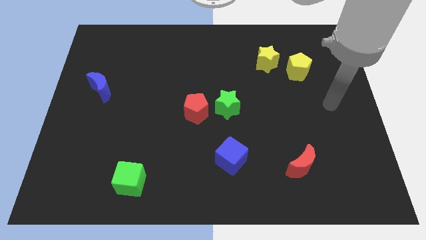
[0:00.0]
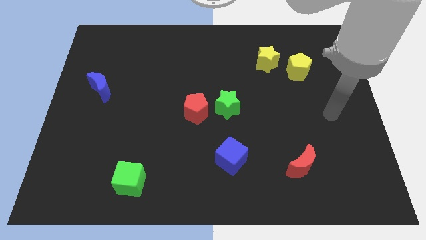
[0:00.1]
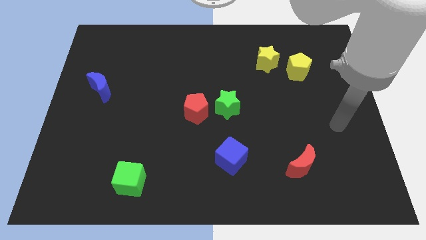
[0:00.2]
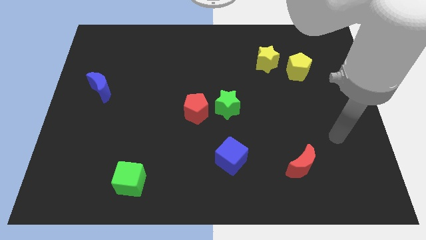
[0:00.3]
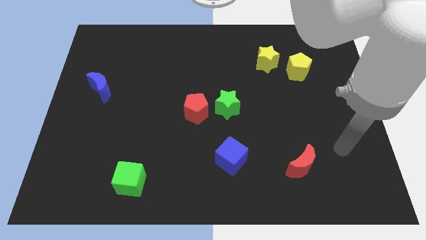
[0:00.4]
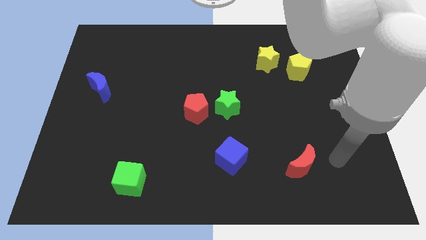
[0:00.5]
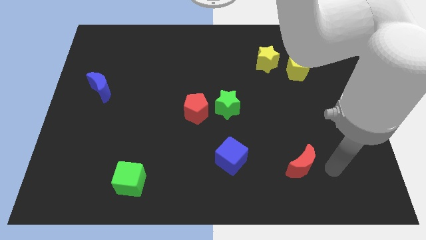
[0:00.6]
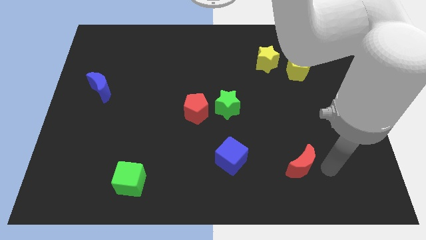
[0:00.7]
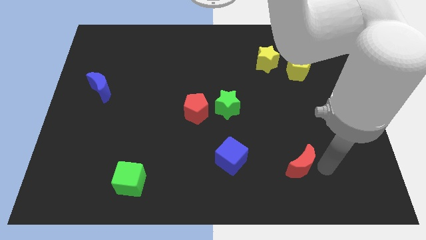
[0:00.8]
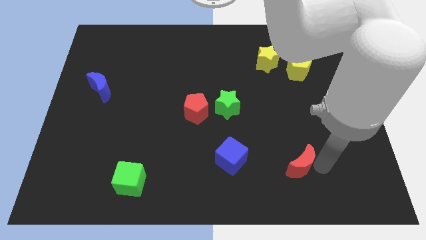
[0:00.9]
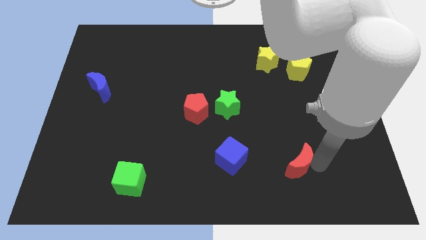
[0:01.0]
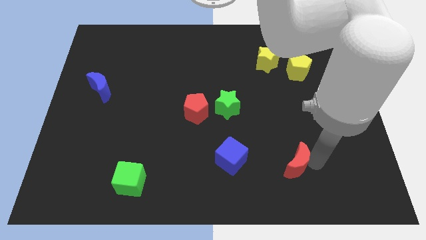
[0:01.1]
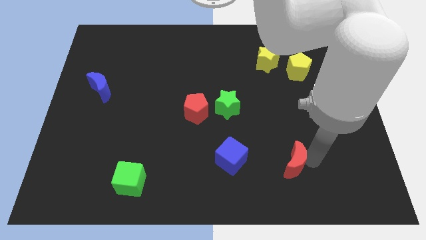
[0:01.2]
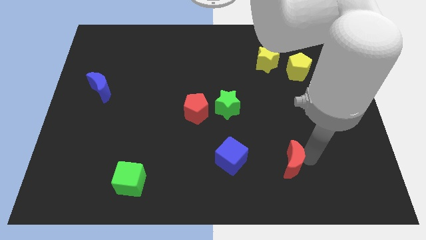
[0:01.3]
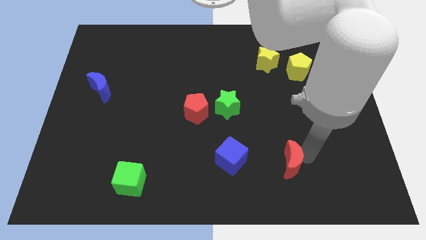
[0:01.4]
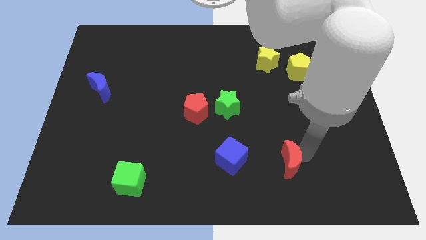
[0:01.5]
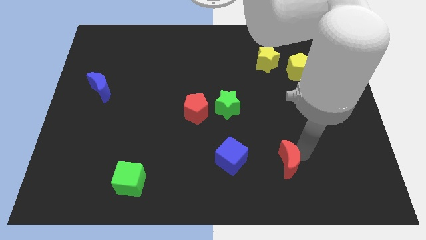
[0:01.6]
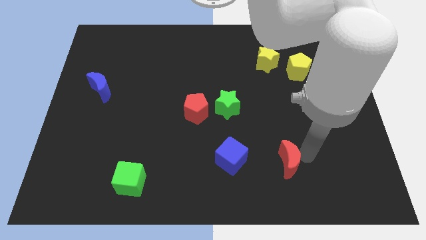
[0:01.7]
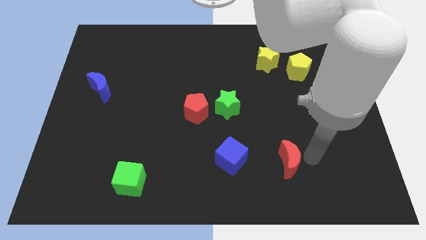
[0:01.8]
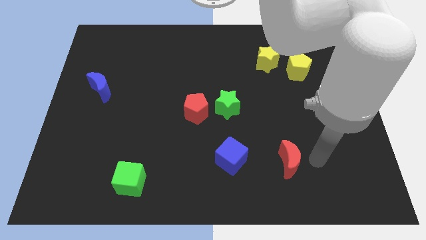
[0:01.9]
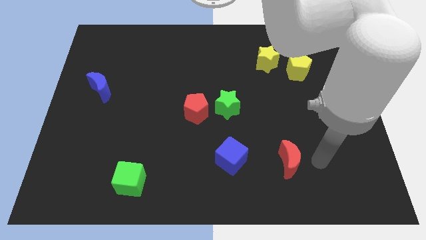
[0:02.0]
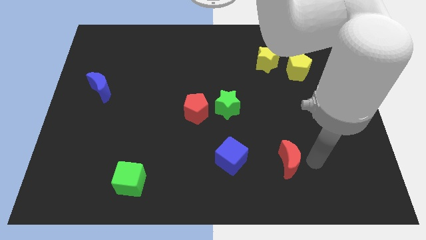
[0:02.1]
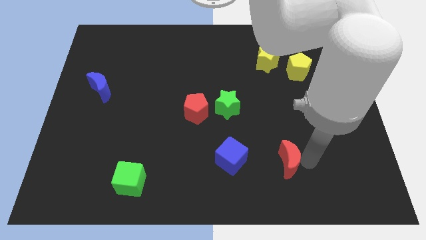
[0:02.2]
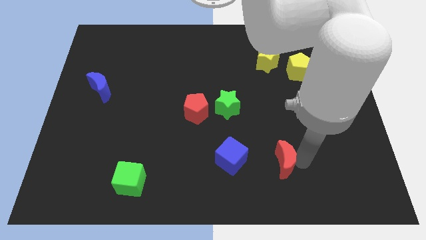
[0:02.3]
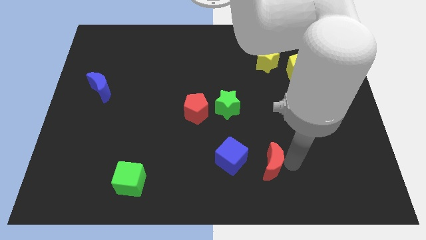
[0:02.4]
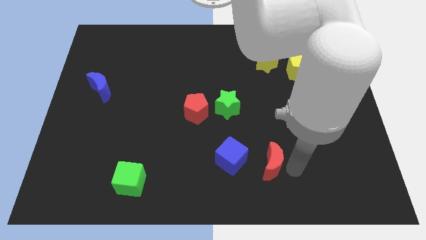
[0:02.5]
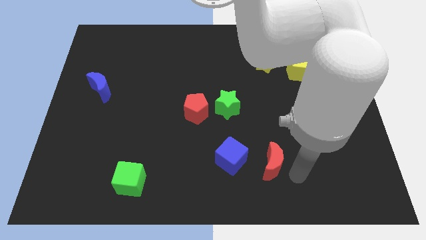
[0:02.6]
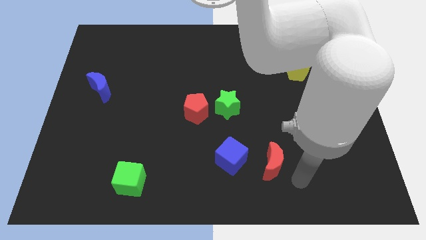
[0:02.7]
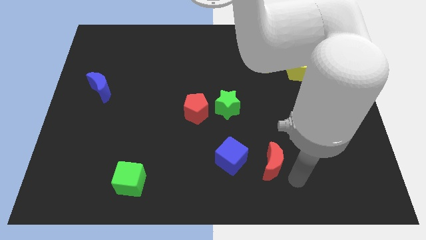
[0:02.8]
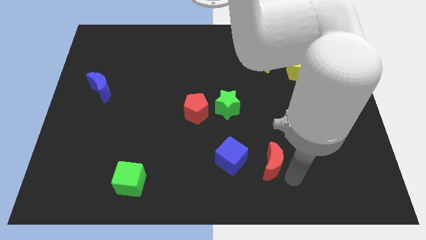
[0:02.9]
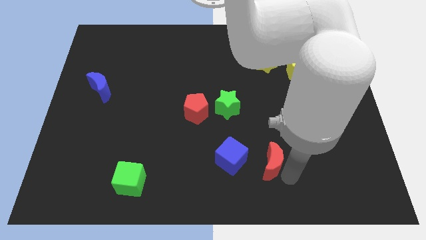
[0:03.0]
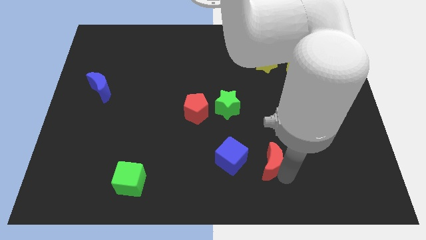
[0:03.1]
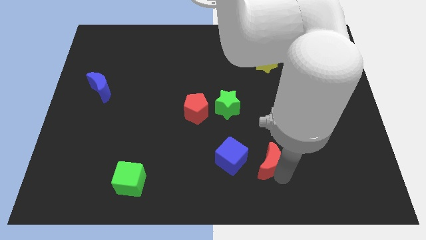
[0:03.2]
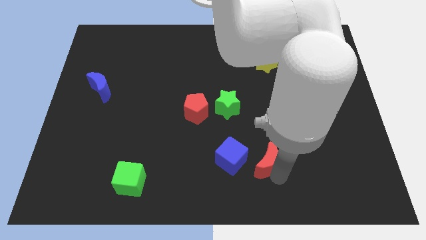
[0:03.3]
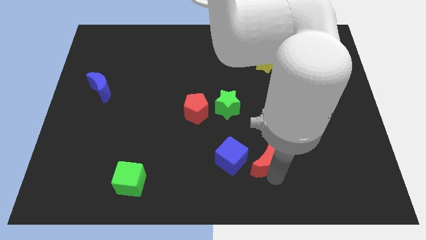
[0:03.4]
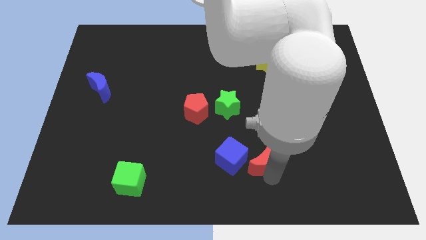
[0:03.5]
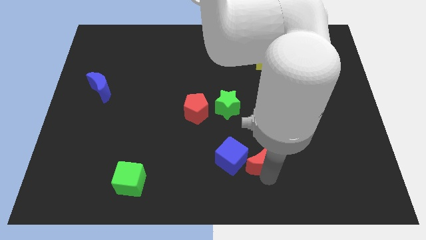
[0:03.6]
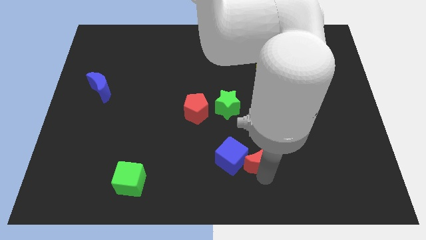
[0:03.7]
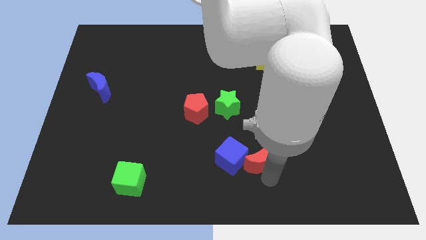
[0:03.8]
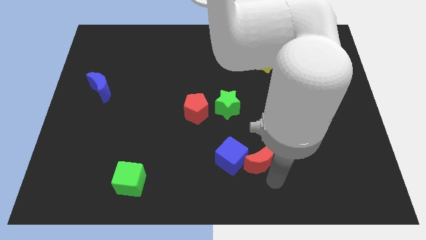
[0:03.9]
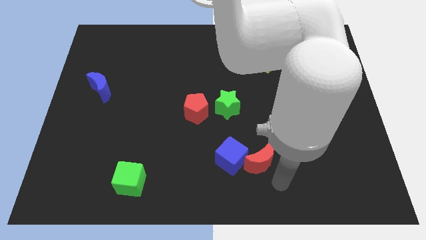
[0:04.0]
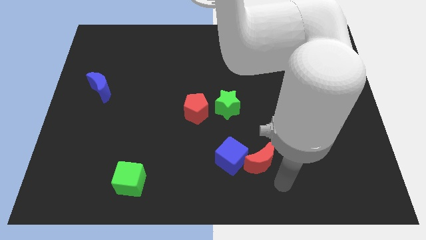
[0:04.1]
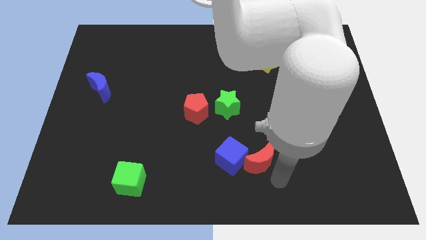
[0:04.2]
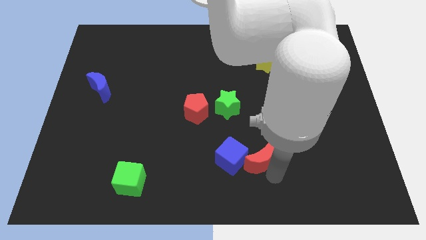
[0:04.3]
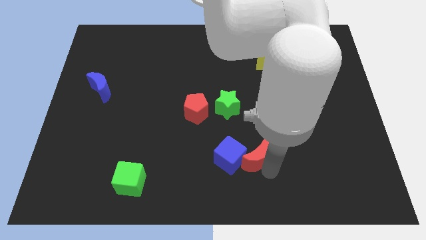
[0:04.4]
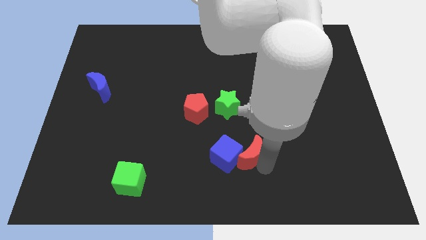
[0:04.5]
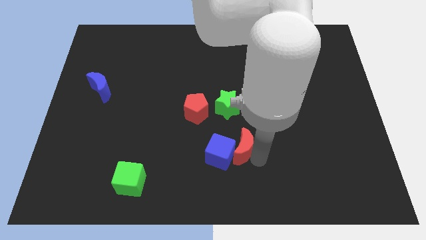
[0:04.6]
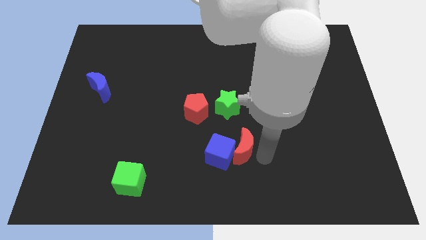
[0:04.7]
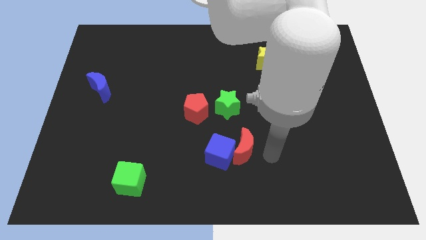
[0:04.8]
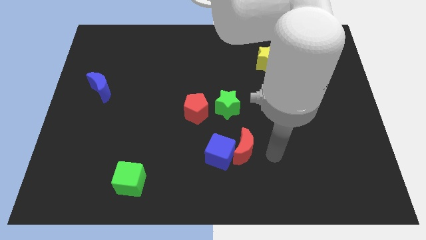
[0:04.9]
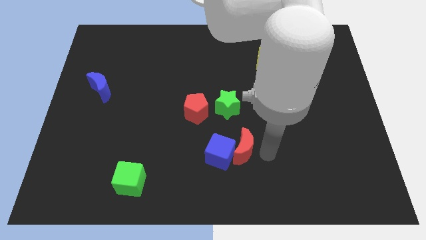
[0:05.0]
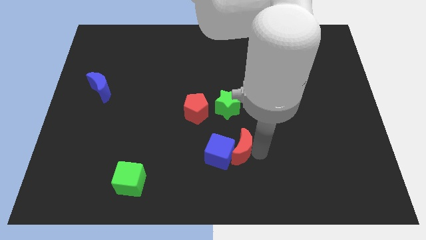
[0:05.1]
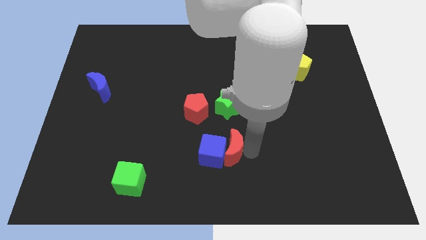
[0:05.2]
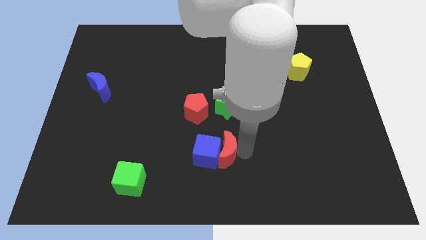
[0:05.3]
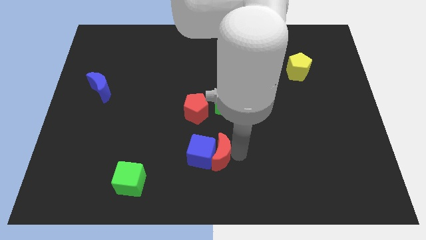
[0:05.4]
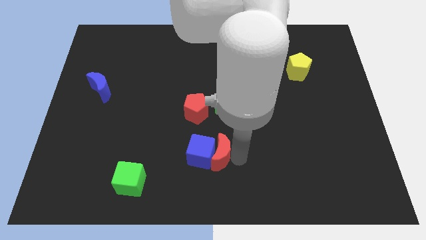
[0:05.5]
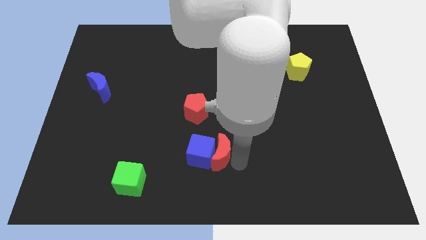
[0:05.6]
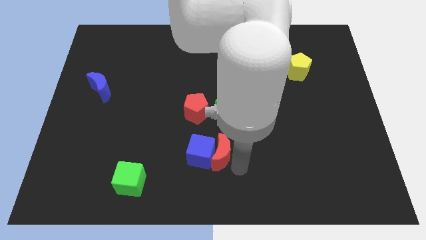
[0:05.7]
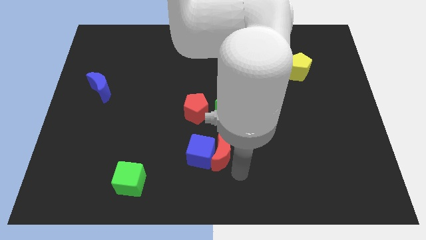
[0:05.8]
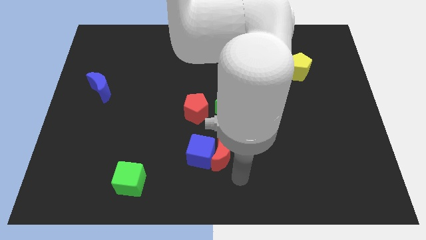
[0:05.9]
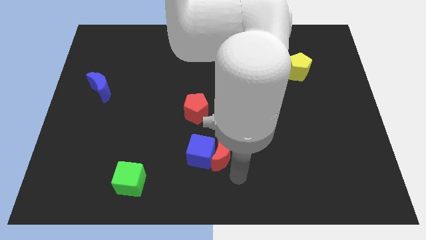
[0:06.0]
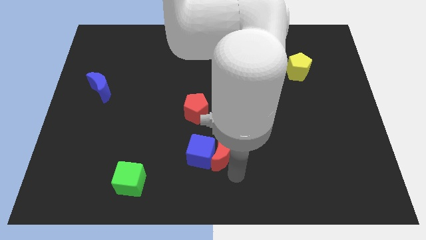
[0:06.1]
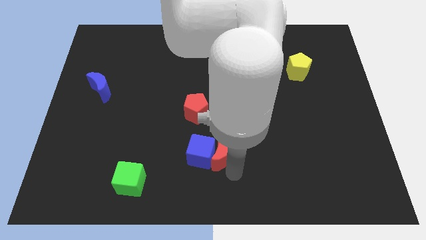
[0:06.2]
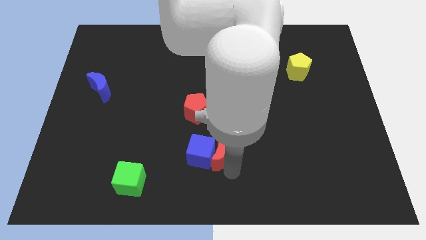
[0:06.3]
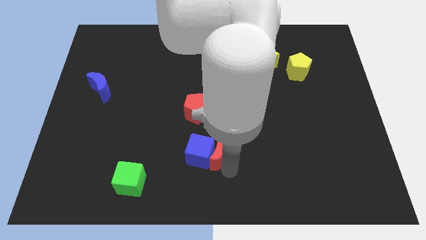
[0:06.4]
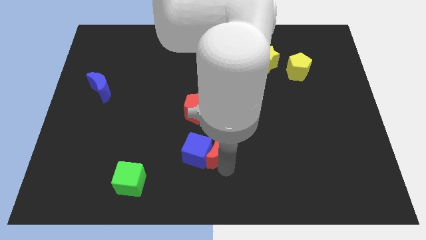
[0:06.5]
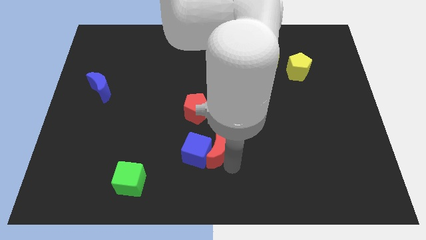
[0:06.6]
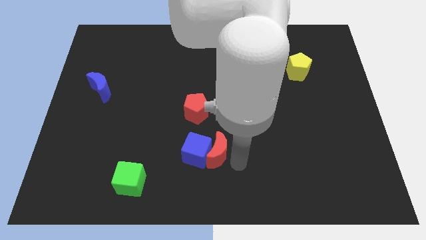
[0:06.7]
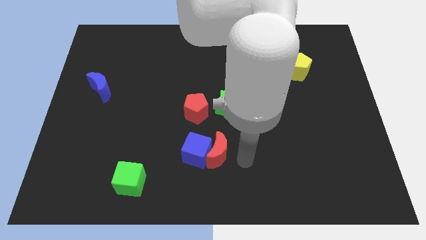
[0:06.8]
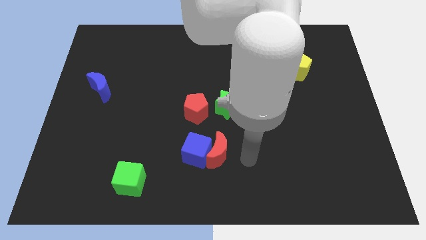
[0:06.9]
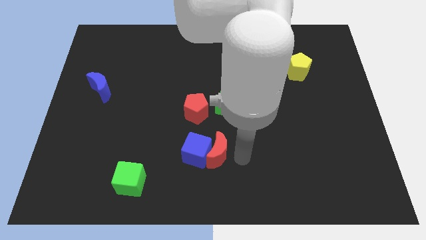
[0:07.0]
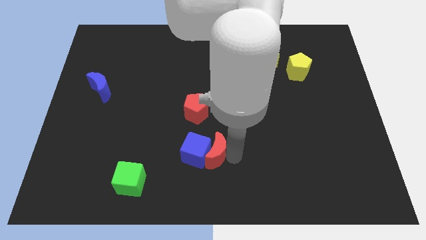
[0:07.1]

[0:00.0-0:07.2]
put the red moon to the bottom side of the red pentagon
